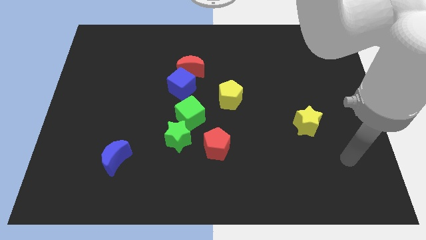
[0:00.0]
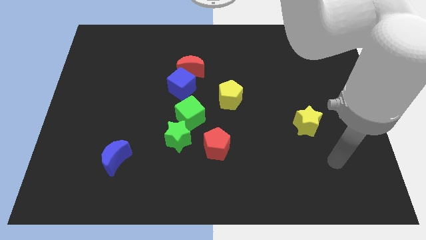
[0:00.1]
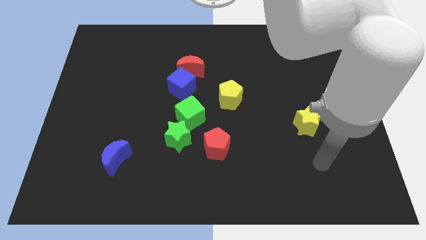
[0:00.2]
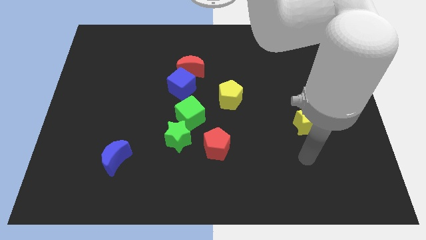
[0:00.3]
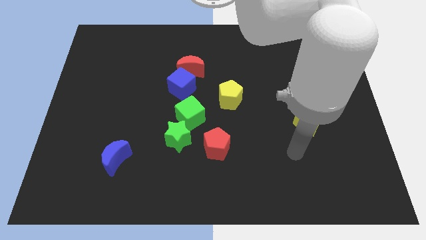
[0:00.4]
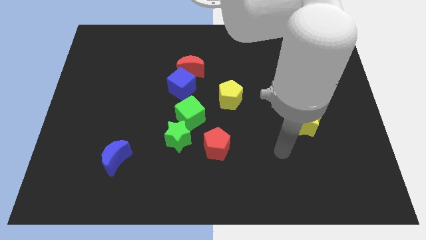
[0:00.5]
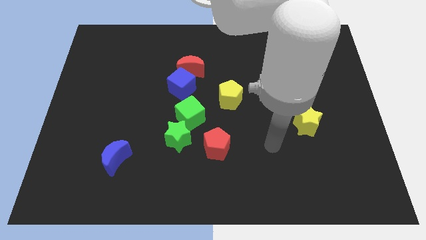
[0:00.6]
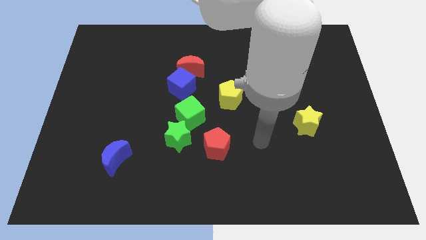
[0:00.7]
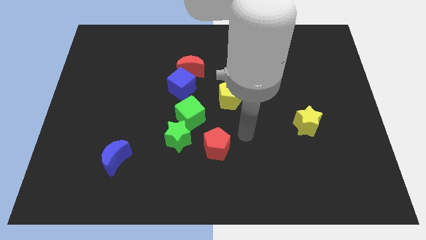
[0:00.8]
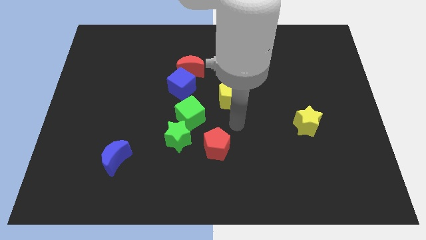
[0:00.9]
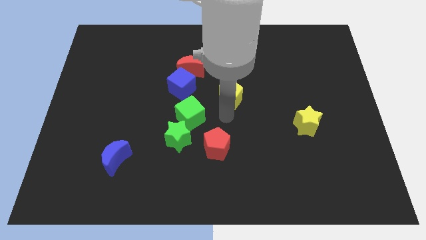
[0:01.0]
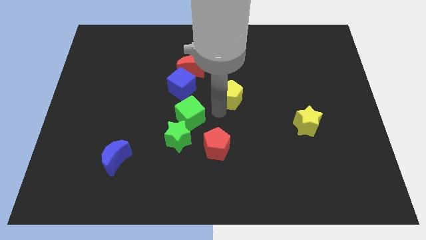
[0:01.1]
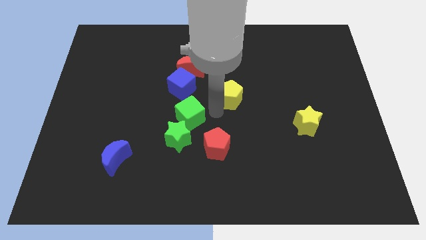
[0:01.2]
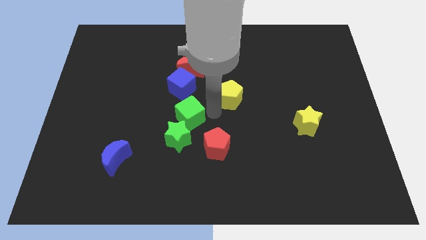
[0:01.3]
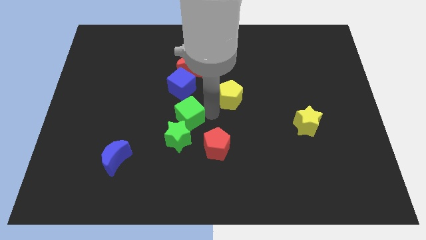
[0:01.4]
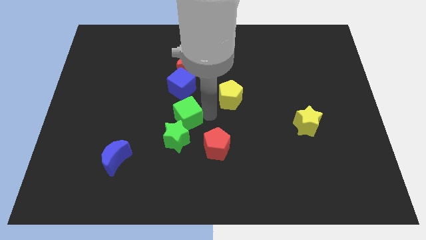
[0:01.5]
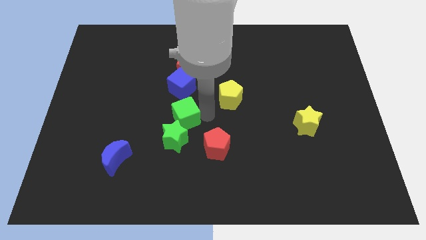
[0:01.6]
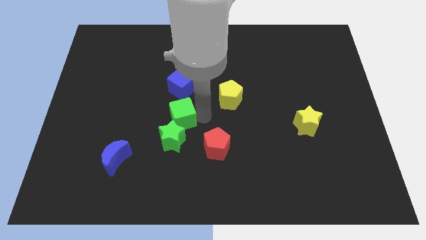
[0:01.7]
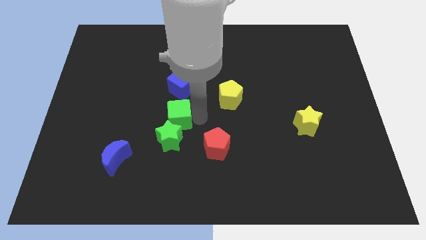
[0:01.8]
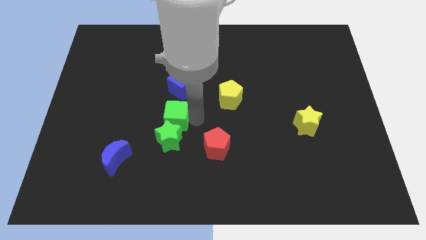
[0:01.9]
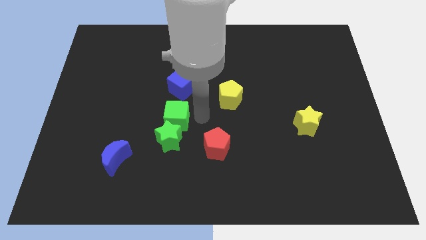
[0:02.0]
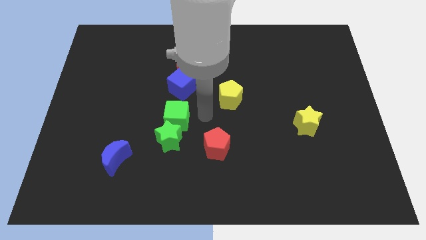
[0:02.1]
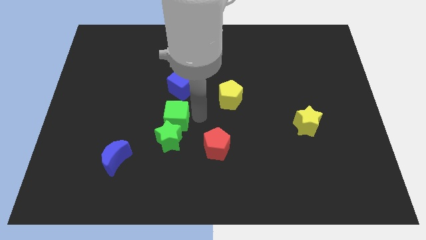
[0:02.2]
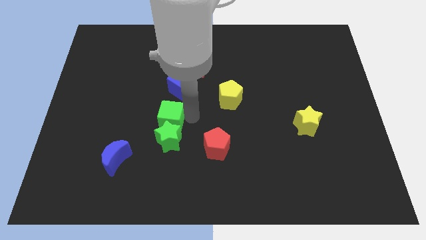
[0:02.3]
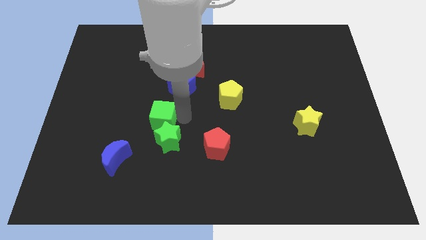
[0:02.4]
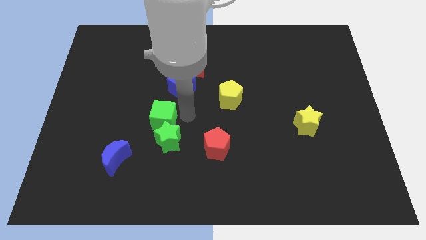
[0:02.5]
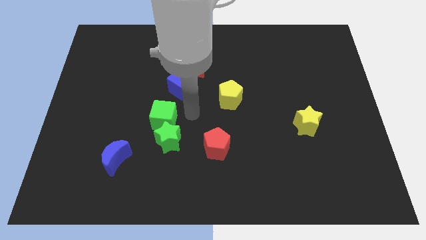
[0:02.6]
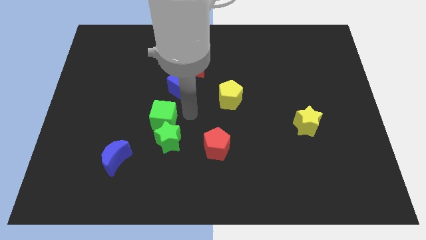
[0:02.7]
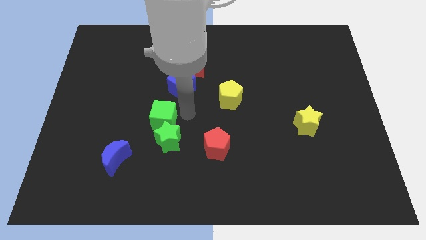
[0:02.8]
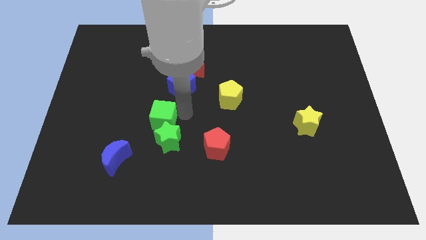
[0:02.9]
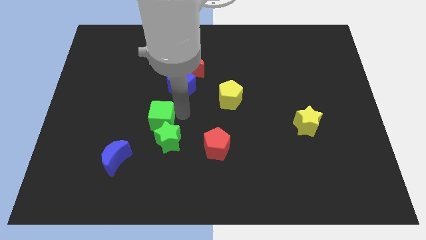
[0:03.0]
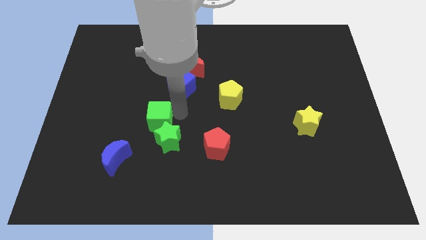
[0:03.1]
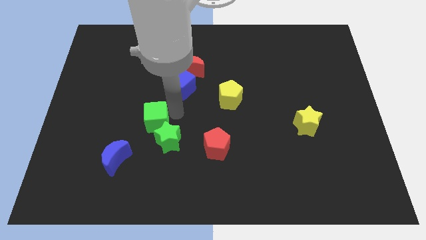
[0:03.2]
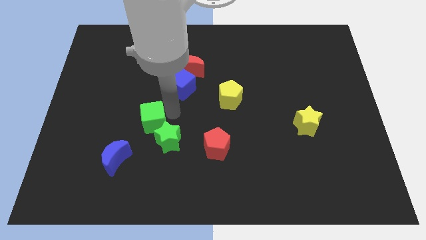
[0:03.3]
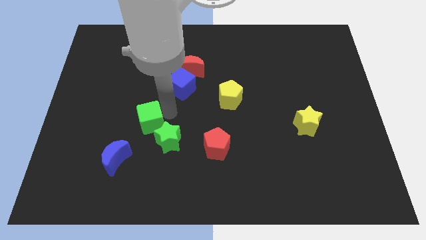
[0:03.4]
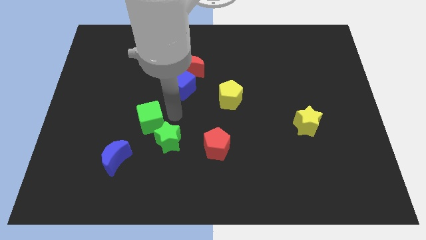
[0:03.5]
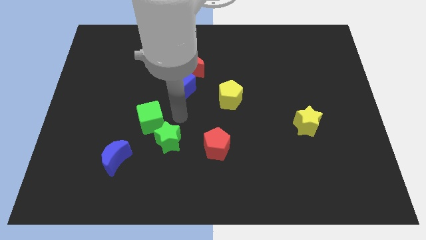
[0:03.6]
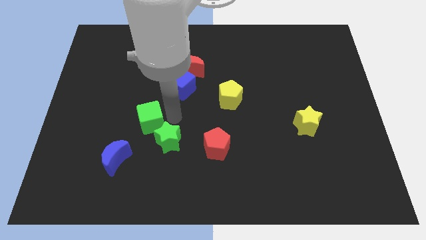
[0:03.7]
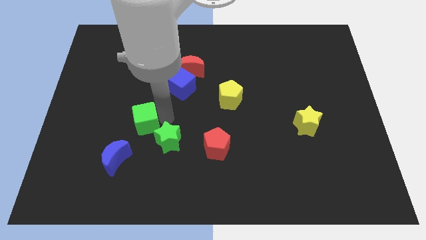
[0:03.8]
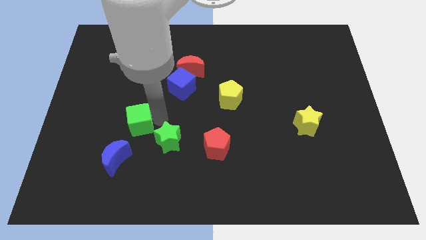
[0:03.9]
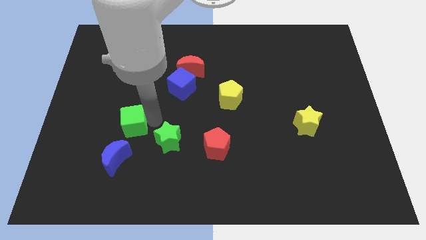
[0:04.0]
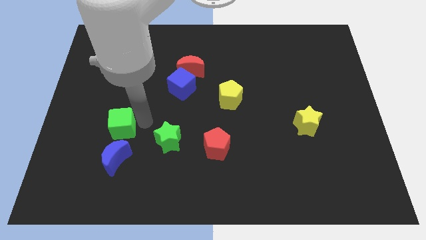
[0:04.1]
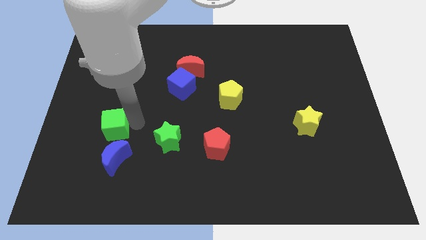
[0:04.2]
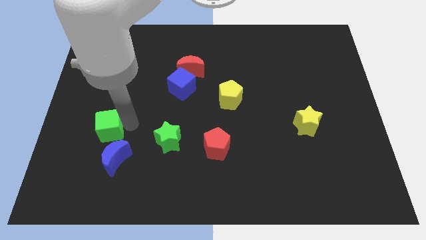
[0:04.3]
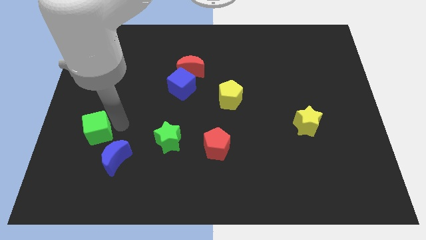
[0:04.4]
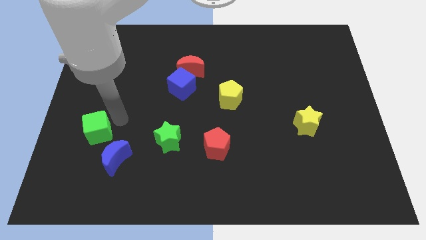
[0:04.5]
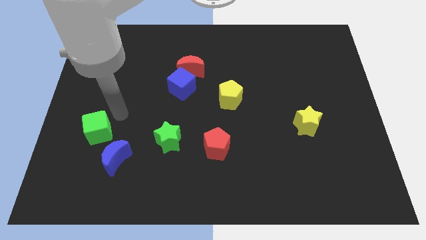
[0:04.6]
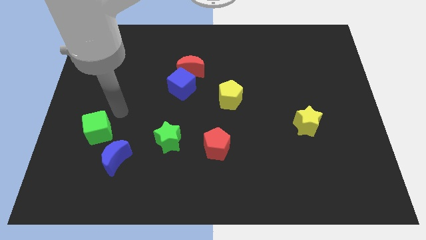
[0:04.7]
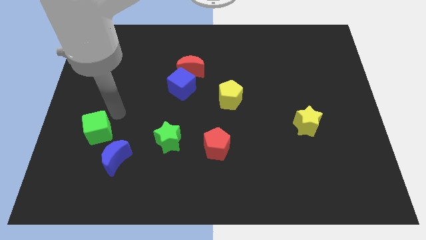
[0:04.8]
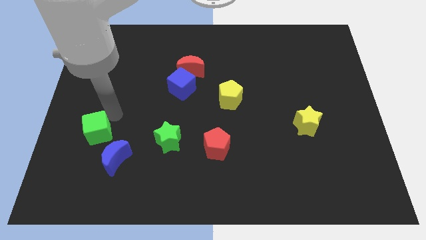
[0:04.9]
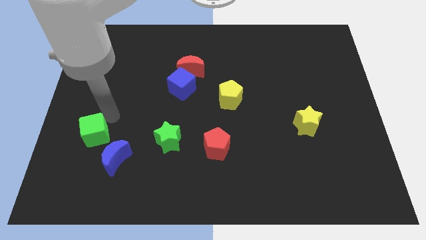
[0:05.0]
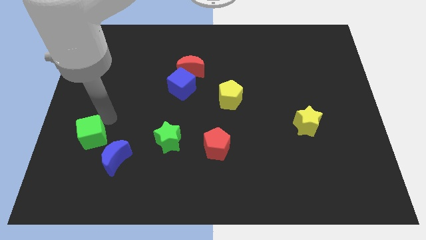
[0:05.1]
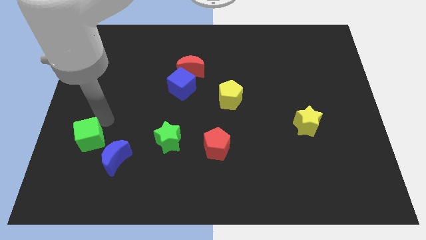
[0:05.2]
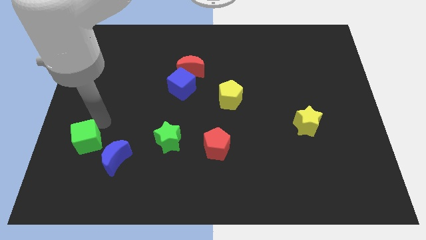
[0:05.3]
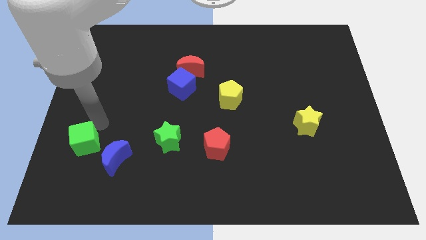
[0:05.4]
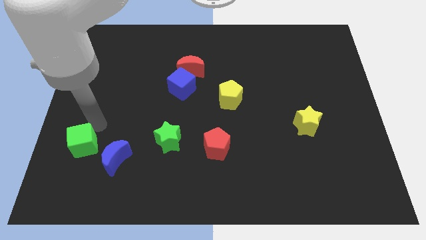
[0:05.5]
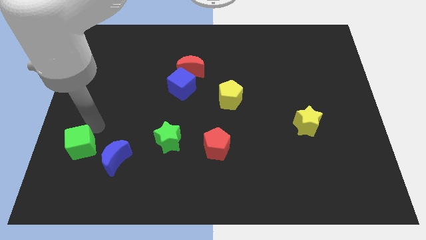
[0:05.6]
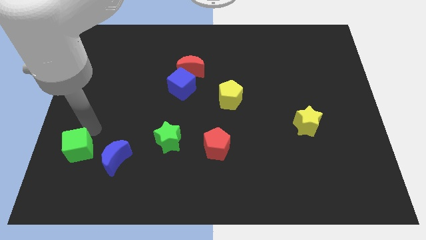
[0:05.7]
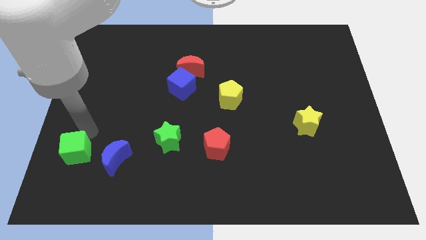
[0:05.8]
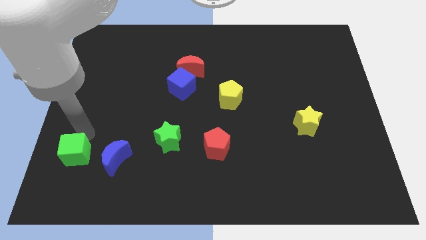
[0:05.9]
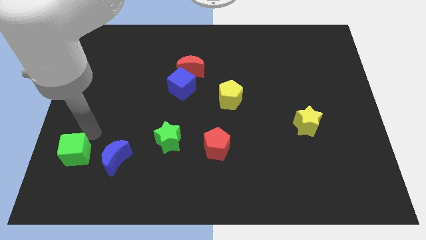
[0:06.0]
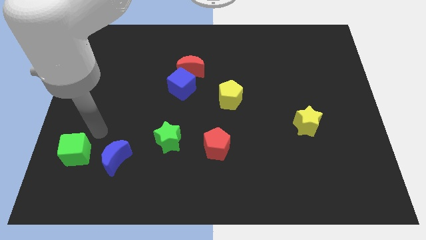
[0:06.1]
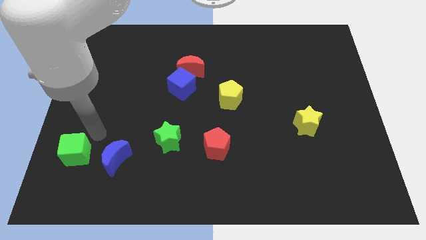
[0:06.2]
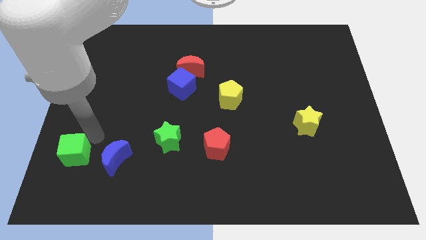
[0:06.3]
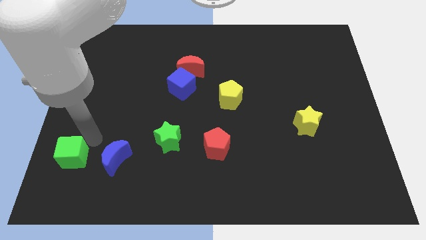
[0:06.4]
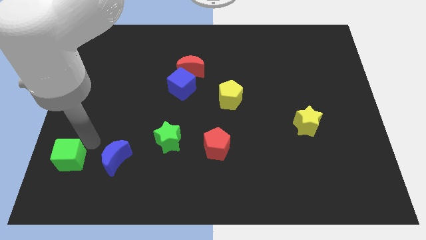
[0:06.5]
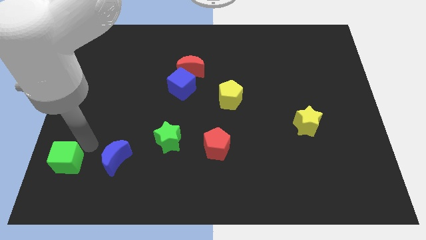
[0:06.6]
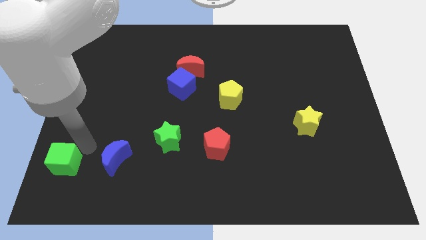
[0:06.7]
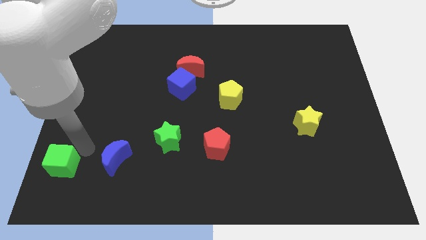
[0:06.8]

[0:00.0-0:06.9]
slide the green cube to the bottom left
